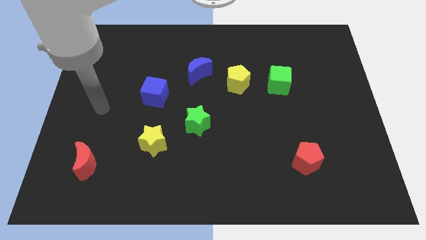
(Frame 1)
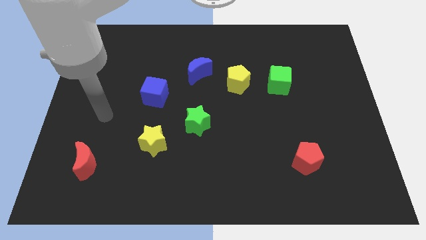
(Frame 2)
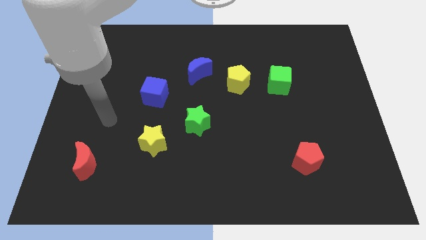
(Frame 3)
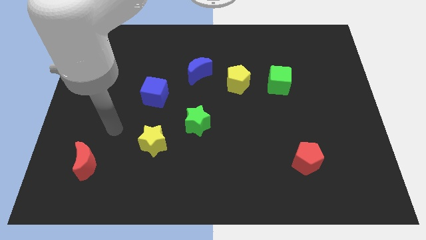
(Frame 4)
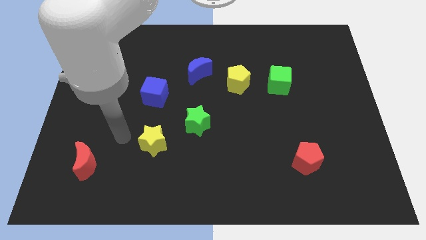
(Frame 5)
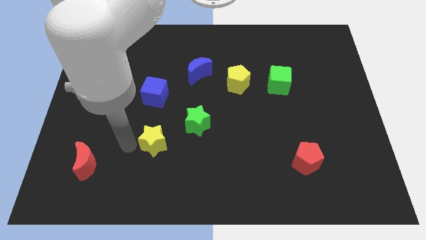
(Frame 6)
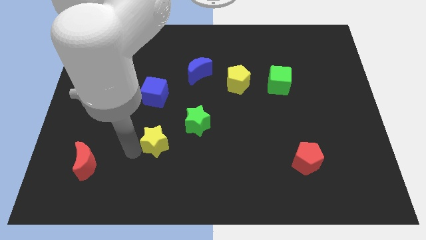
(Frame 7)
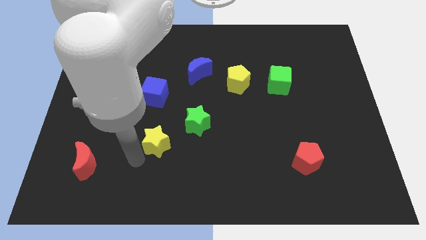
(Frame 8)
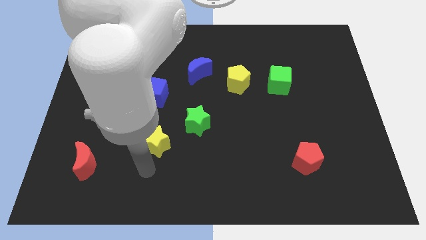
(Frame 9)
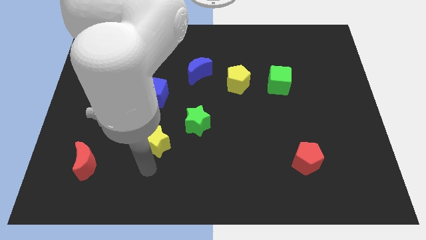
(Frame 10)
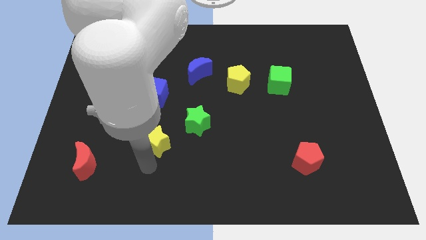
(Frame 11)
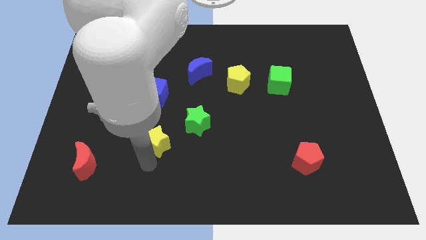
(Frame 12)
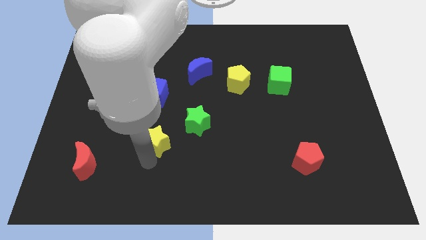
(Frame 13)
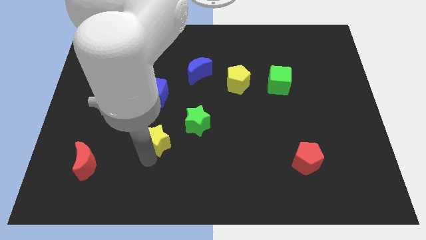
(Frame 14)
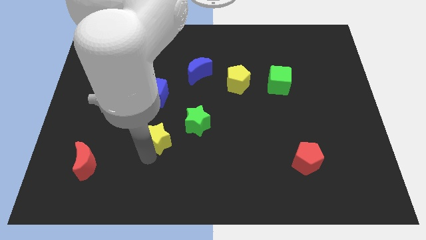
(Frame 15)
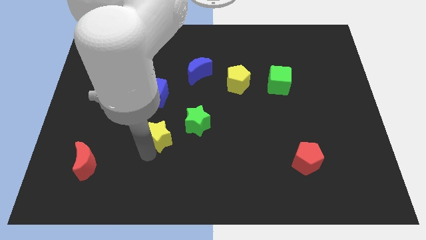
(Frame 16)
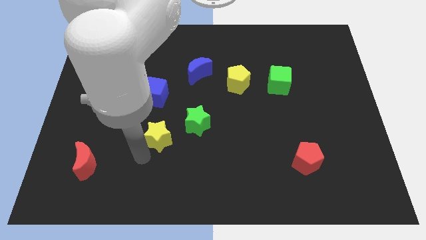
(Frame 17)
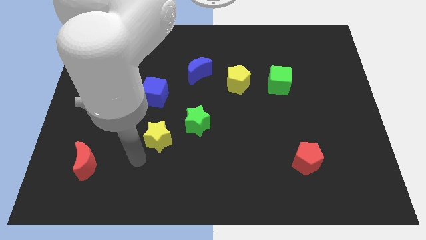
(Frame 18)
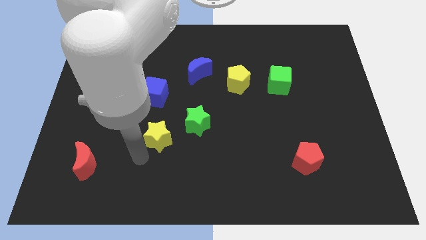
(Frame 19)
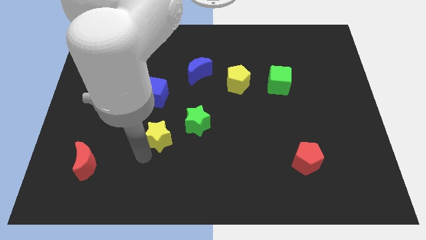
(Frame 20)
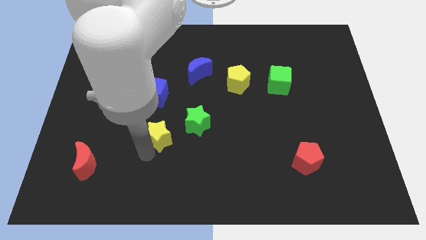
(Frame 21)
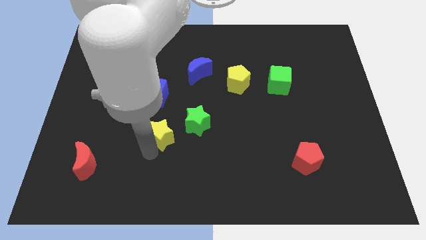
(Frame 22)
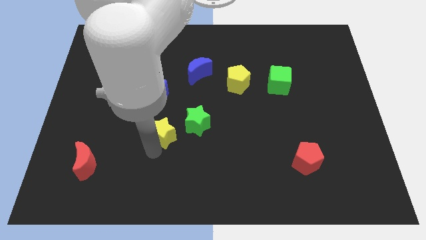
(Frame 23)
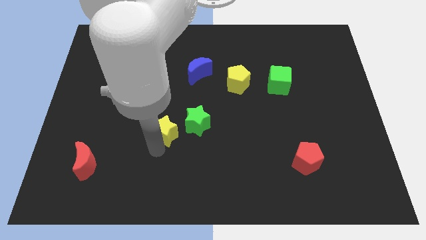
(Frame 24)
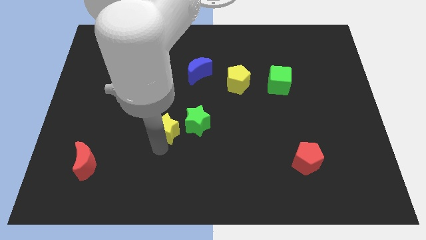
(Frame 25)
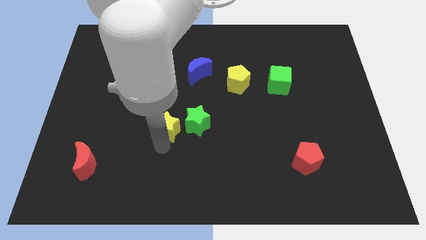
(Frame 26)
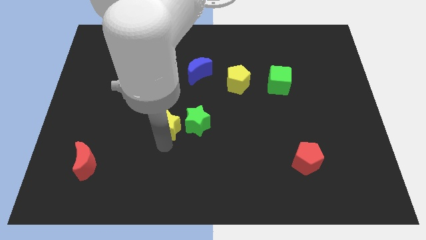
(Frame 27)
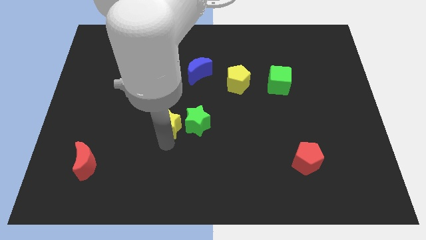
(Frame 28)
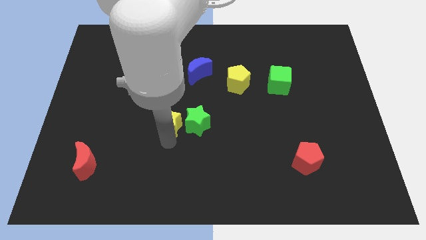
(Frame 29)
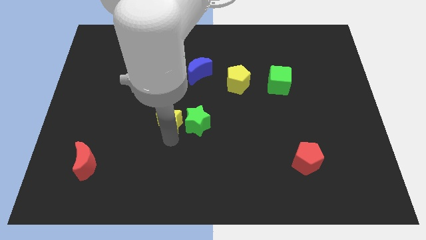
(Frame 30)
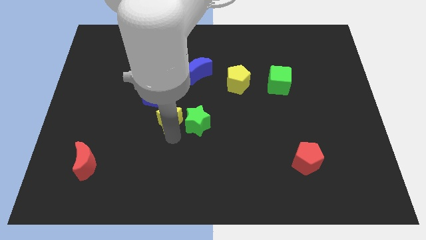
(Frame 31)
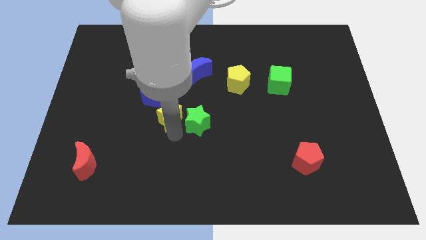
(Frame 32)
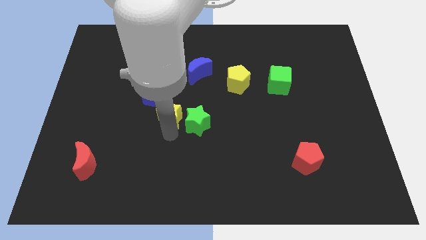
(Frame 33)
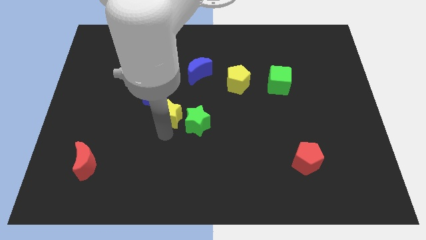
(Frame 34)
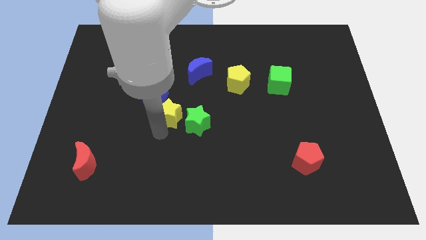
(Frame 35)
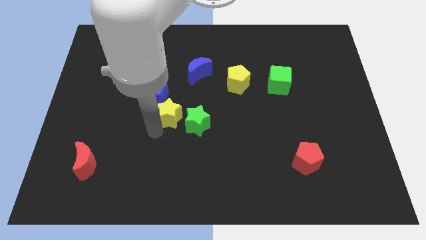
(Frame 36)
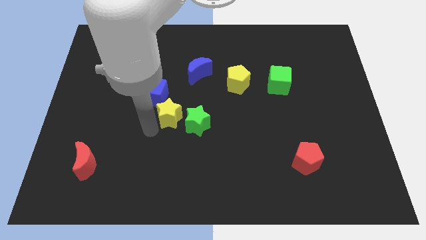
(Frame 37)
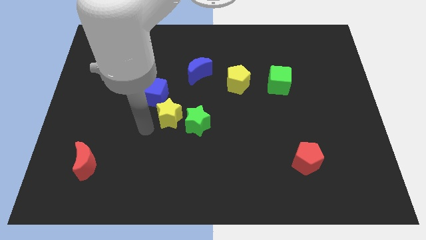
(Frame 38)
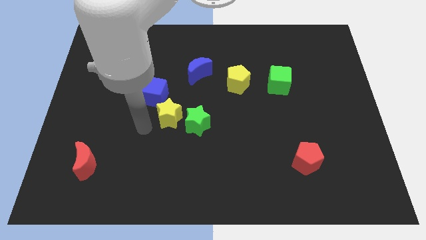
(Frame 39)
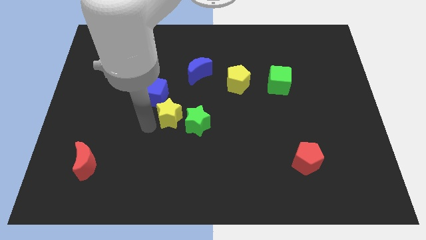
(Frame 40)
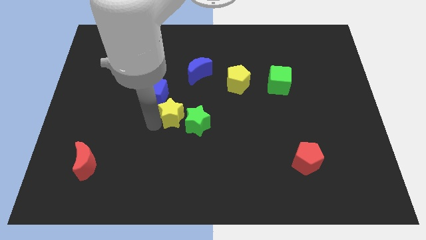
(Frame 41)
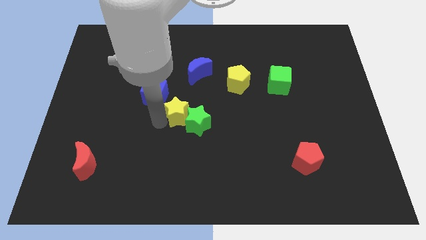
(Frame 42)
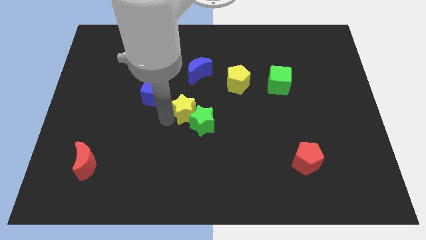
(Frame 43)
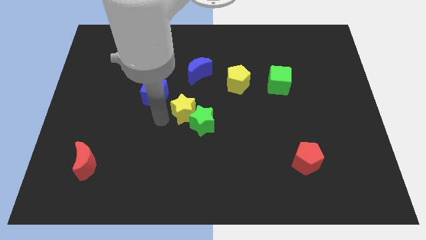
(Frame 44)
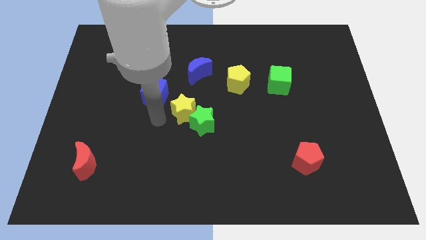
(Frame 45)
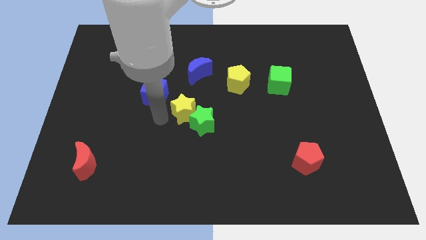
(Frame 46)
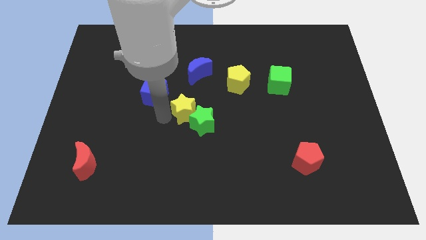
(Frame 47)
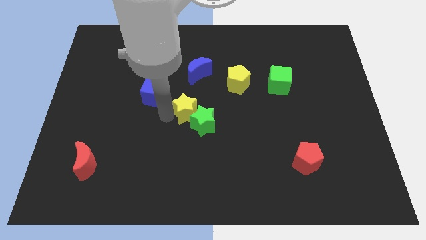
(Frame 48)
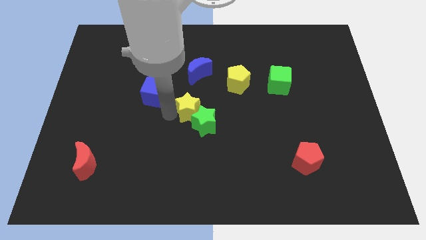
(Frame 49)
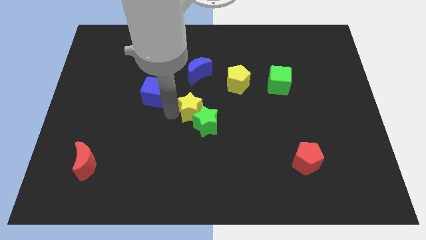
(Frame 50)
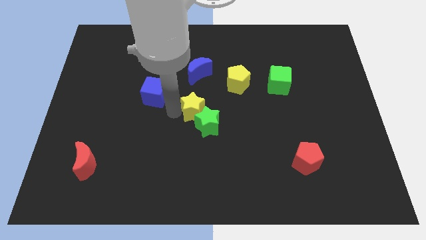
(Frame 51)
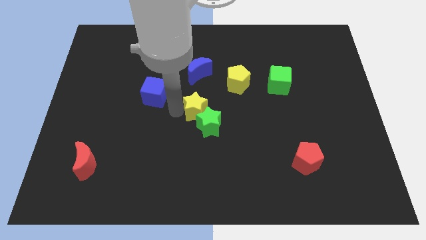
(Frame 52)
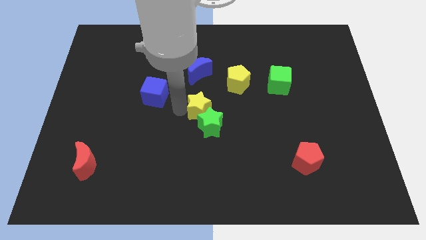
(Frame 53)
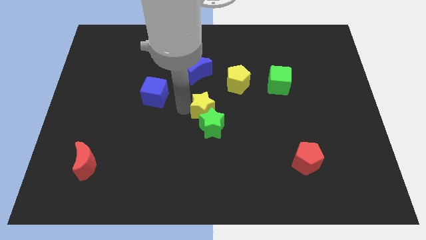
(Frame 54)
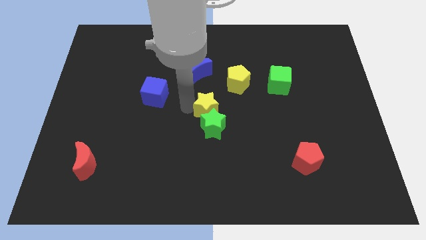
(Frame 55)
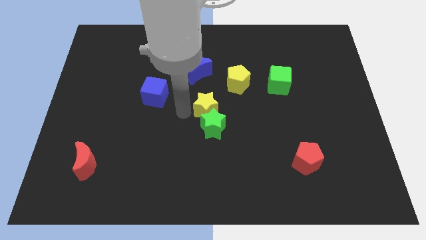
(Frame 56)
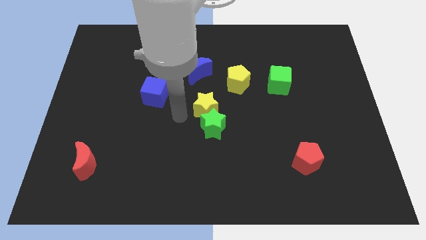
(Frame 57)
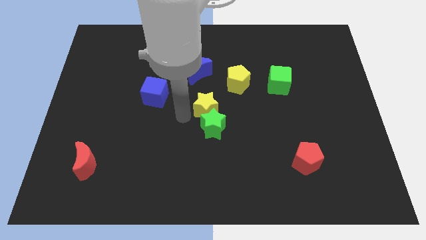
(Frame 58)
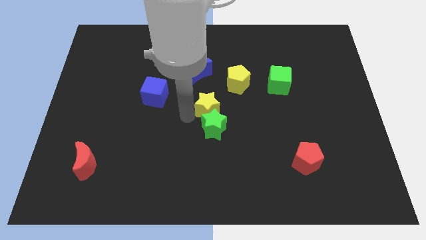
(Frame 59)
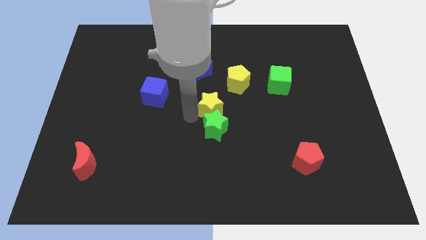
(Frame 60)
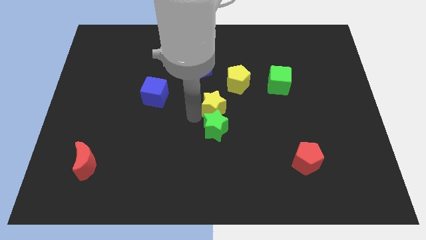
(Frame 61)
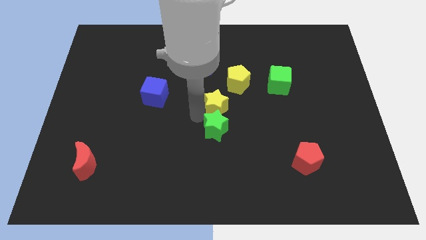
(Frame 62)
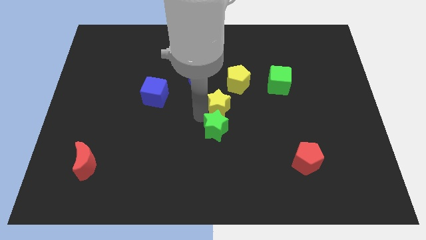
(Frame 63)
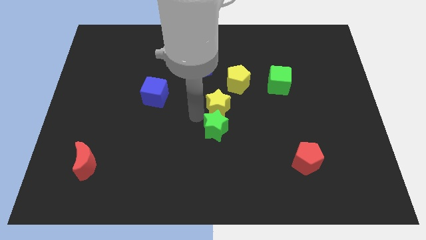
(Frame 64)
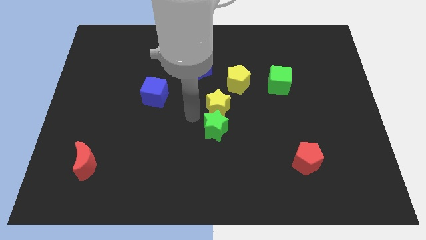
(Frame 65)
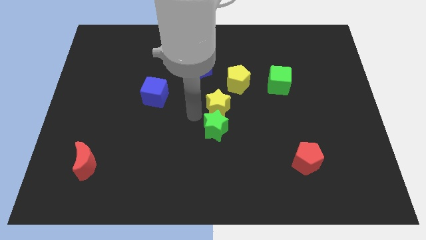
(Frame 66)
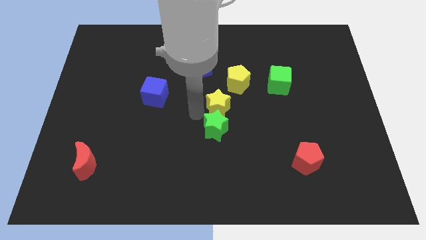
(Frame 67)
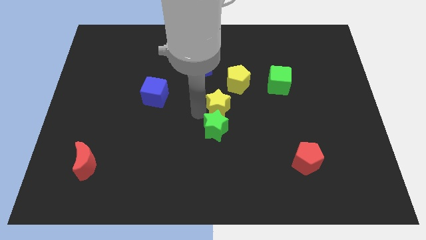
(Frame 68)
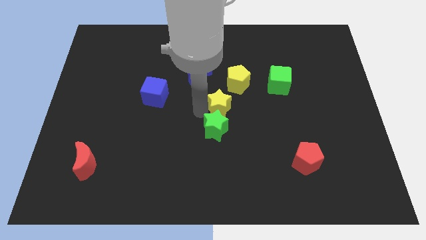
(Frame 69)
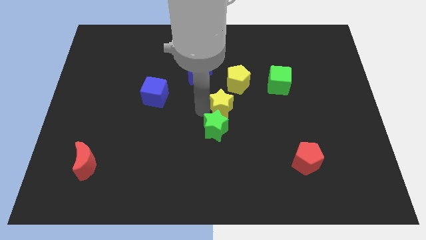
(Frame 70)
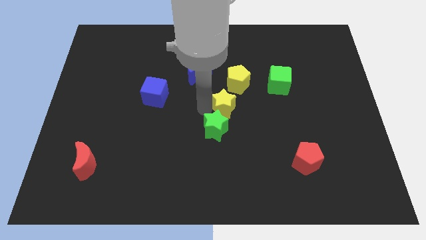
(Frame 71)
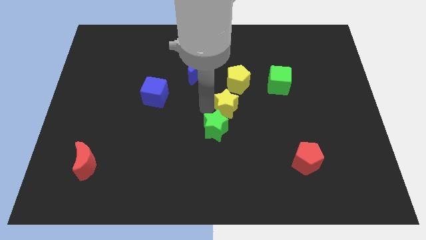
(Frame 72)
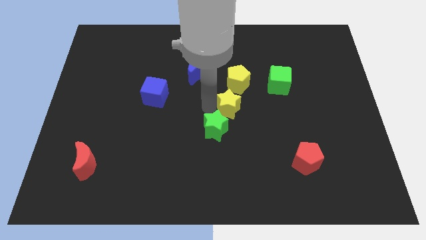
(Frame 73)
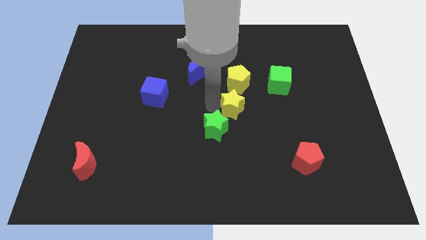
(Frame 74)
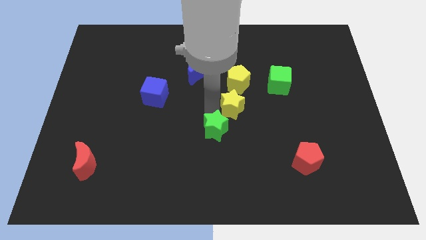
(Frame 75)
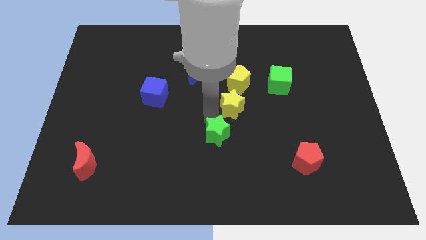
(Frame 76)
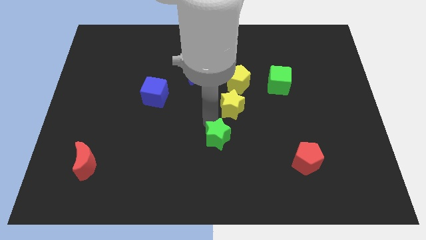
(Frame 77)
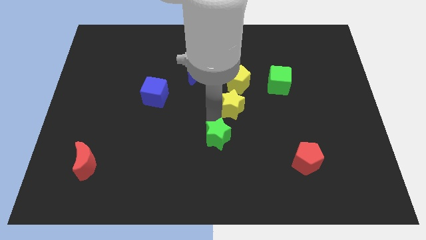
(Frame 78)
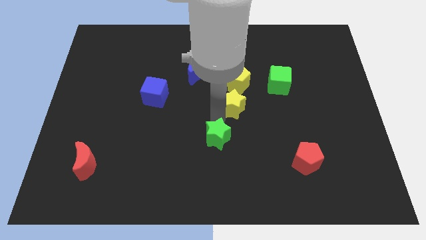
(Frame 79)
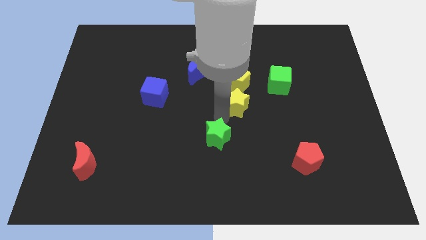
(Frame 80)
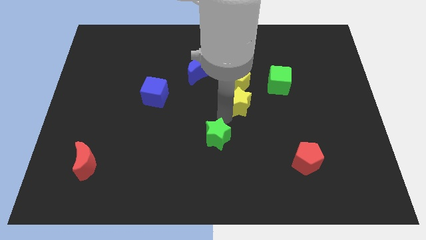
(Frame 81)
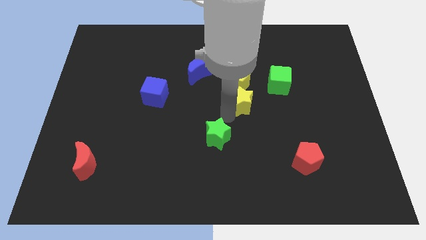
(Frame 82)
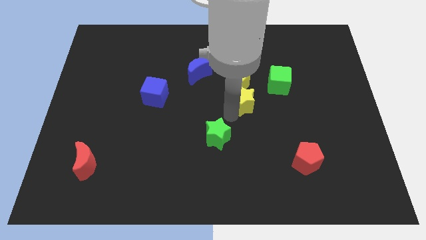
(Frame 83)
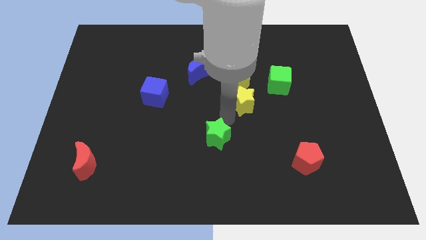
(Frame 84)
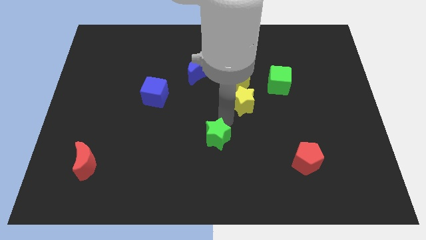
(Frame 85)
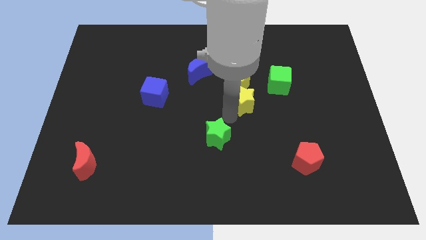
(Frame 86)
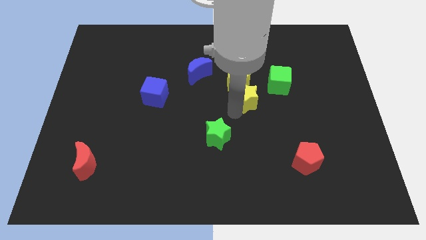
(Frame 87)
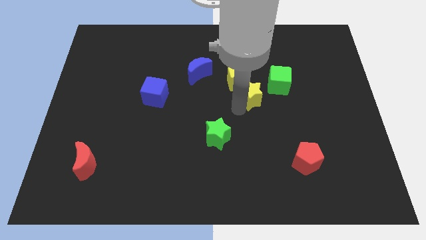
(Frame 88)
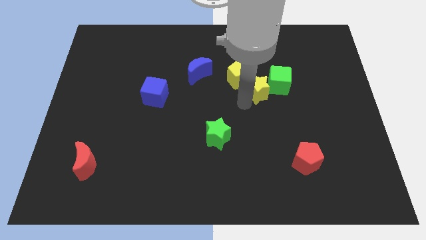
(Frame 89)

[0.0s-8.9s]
move the yellow star to the green cube
